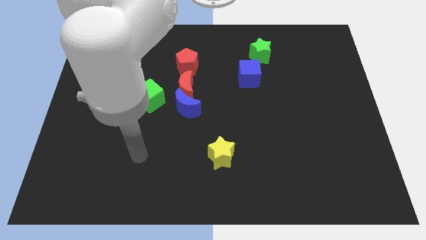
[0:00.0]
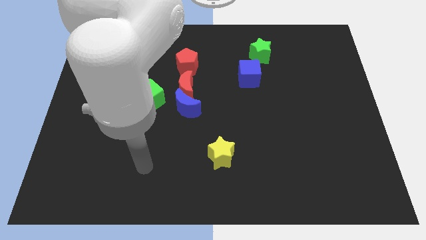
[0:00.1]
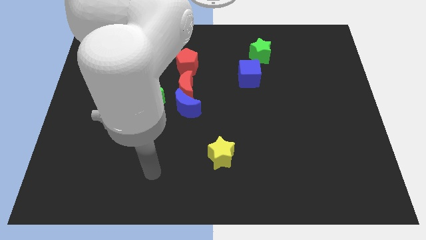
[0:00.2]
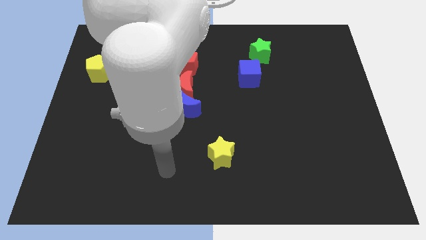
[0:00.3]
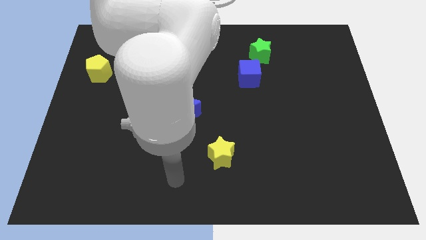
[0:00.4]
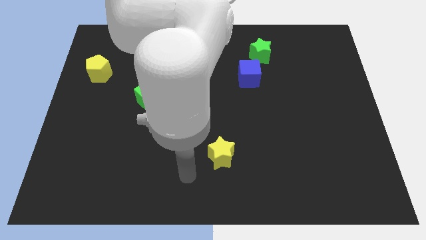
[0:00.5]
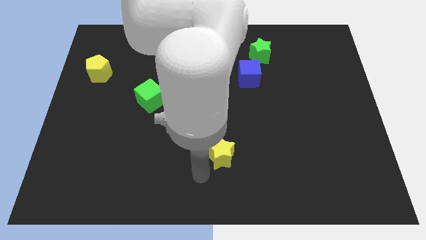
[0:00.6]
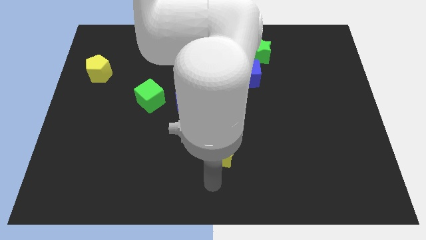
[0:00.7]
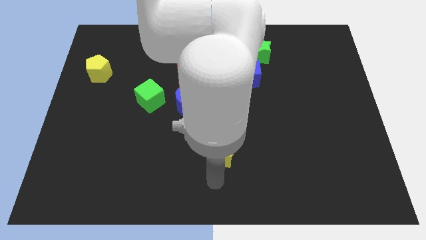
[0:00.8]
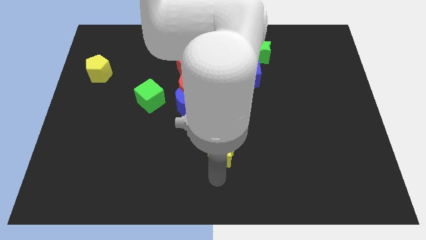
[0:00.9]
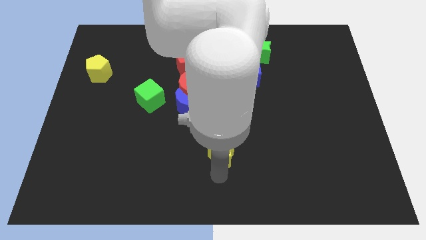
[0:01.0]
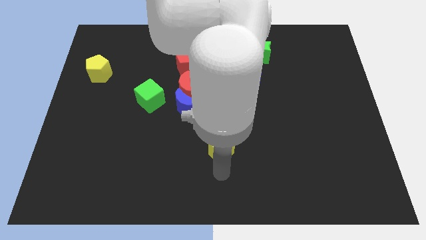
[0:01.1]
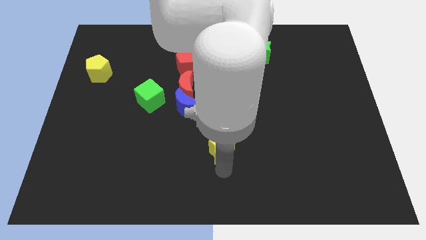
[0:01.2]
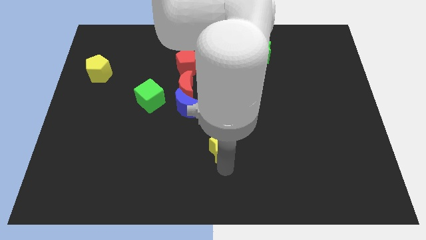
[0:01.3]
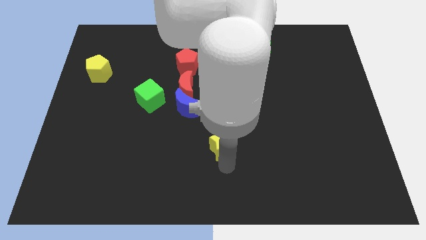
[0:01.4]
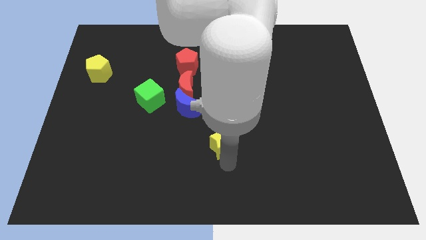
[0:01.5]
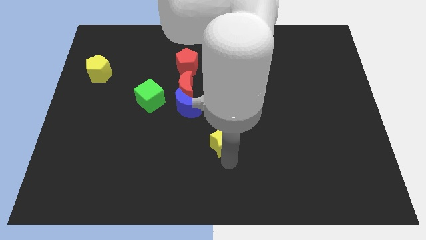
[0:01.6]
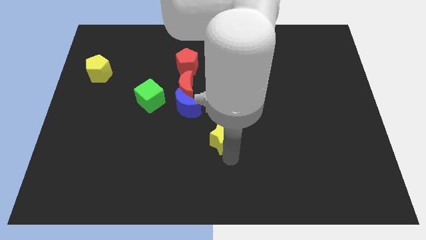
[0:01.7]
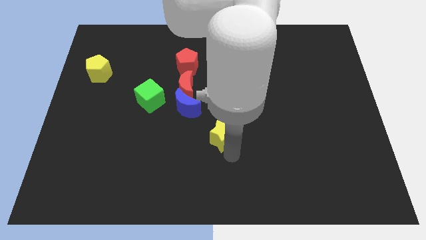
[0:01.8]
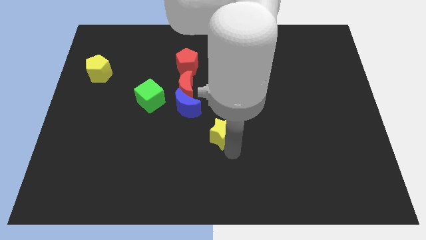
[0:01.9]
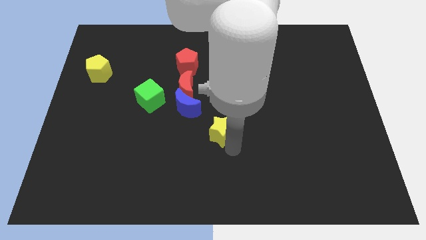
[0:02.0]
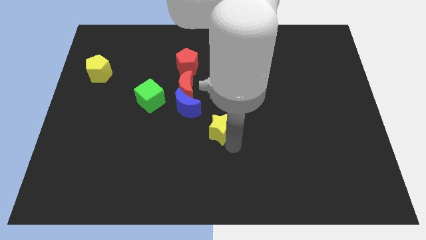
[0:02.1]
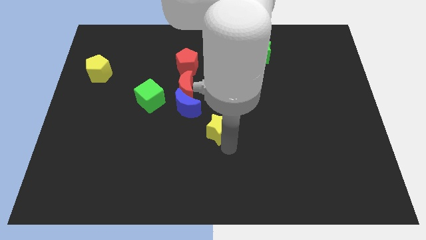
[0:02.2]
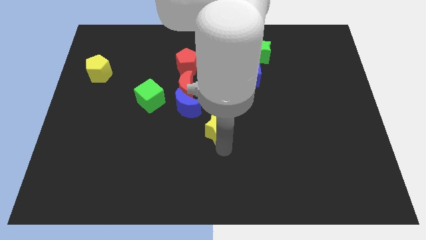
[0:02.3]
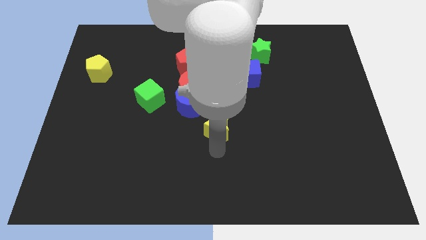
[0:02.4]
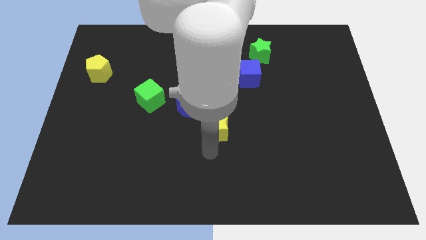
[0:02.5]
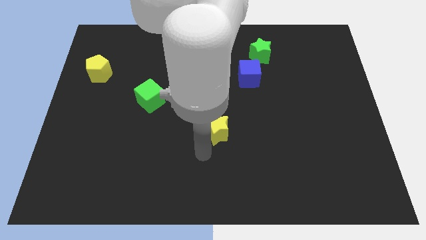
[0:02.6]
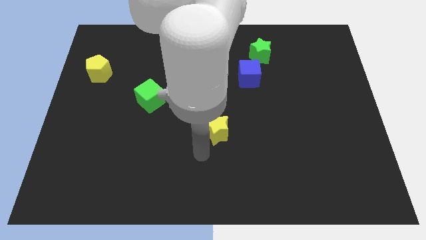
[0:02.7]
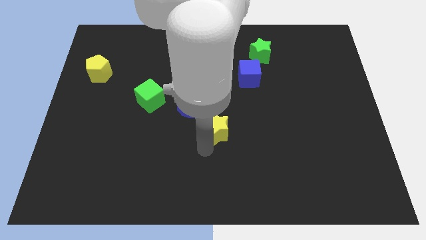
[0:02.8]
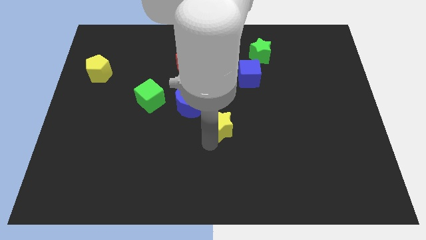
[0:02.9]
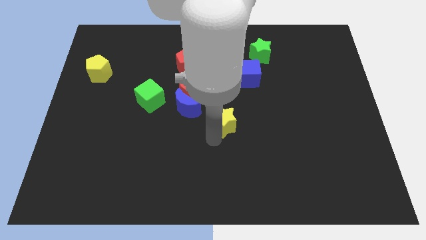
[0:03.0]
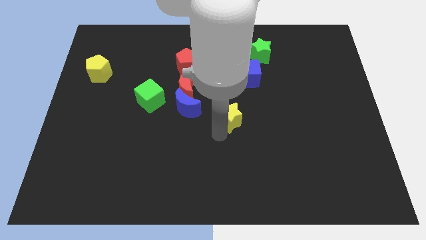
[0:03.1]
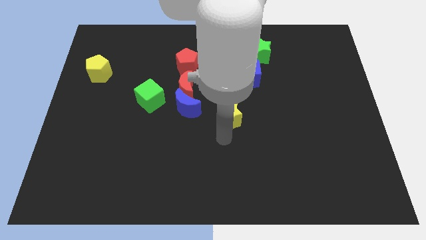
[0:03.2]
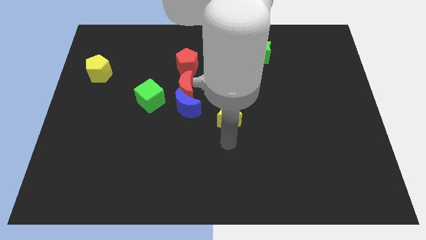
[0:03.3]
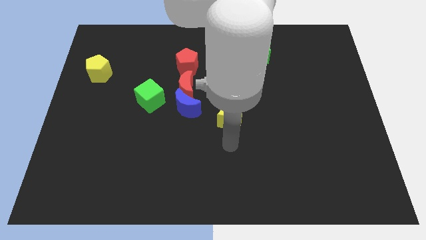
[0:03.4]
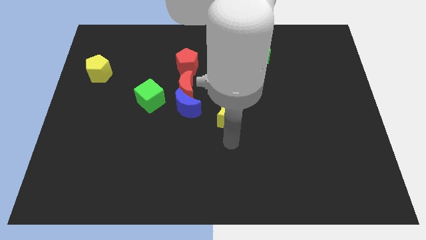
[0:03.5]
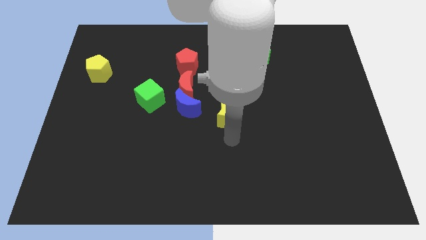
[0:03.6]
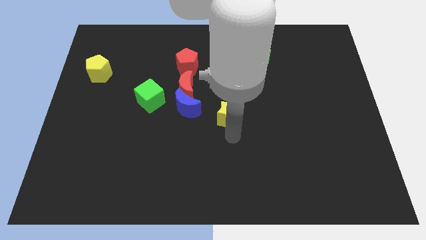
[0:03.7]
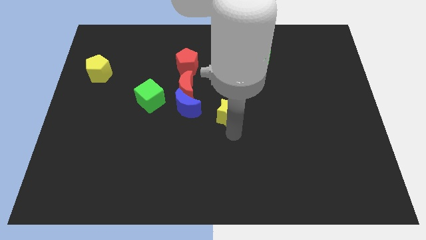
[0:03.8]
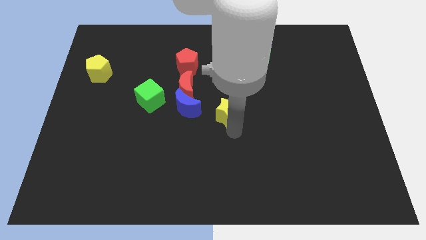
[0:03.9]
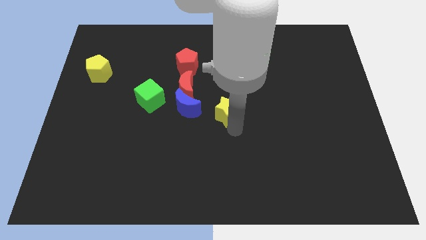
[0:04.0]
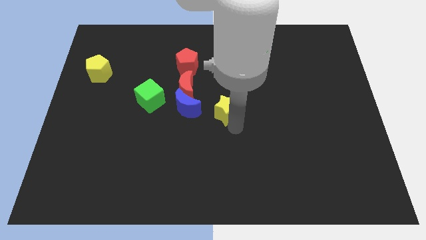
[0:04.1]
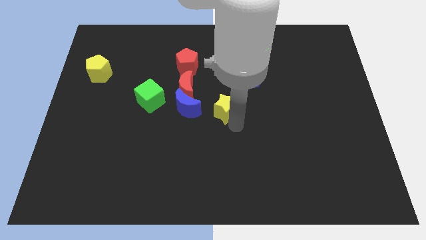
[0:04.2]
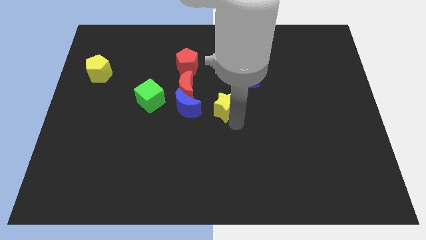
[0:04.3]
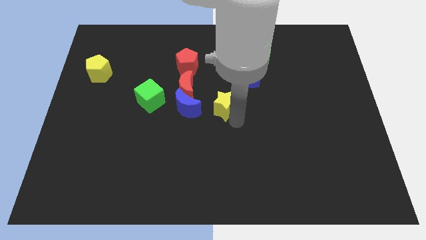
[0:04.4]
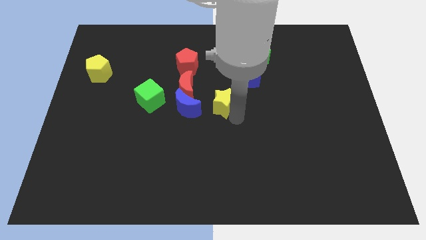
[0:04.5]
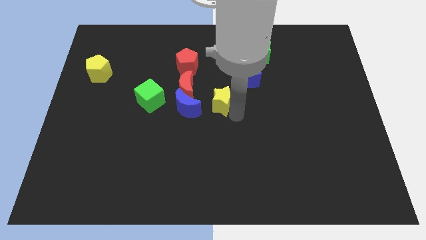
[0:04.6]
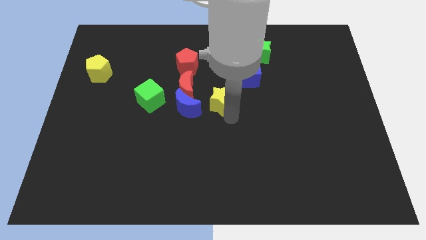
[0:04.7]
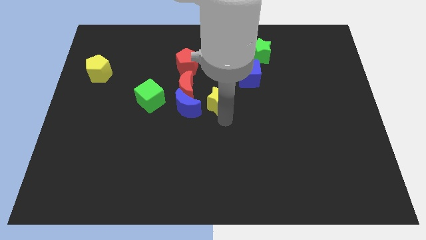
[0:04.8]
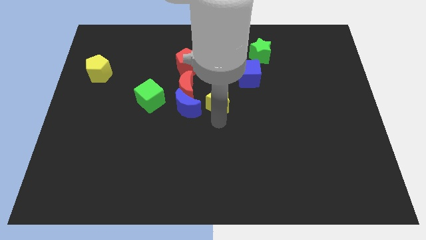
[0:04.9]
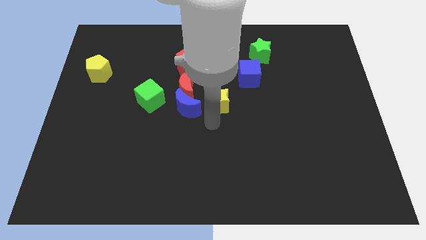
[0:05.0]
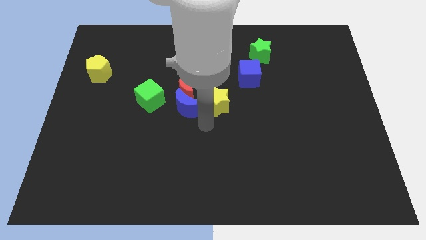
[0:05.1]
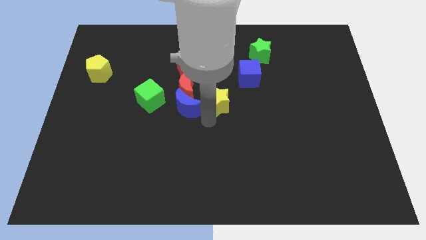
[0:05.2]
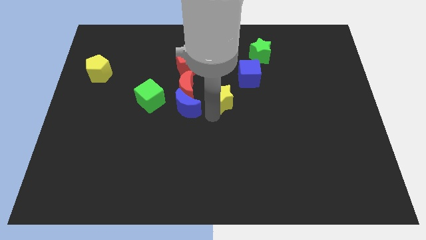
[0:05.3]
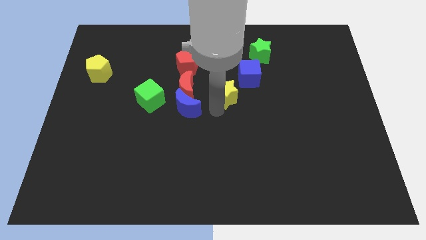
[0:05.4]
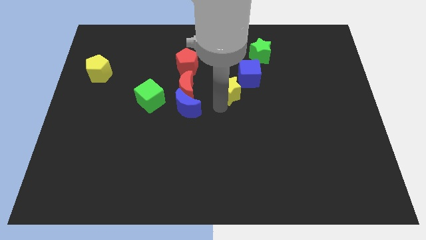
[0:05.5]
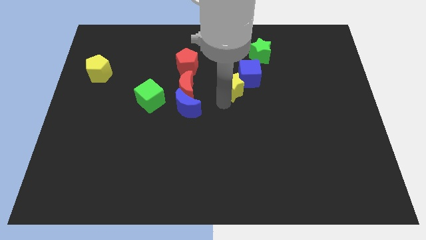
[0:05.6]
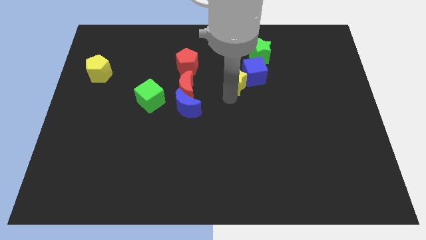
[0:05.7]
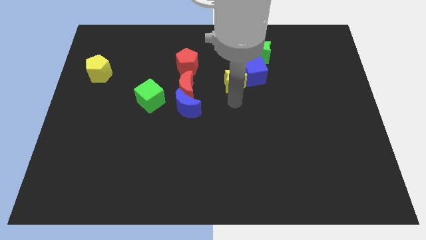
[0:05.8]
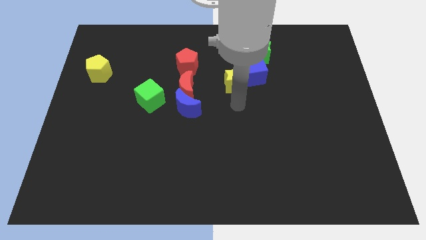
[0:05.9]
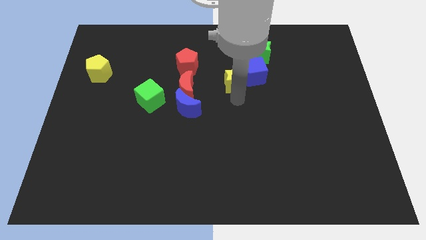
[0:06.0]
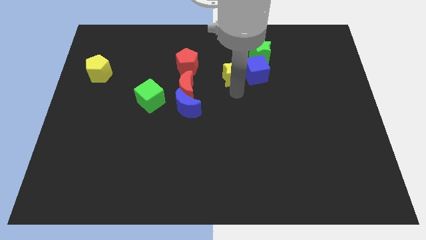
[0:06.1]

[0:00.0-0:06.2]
move the yellow star to the top left side of the blue cube

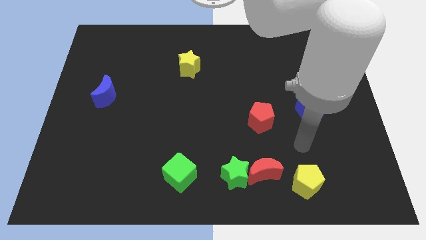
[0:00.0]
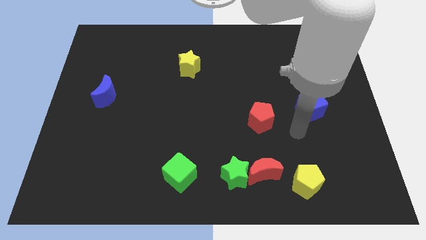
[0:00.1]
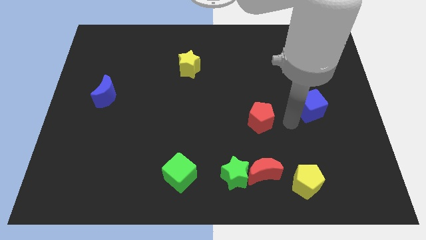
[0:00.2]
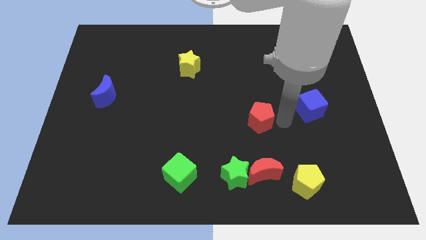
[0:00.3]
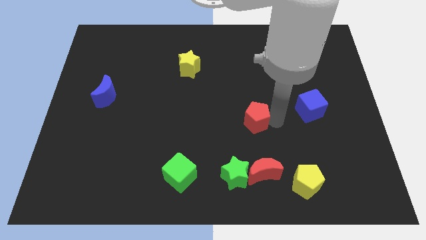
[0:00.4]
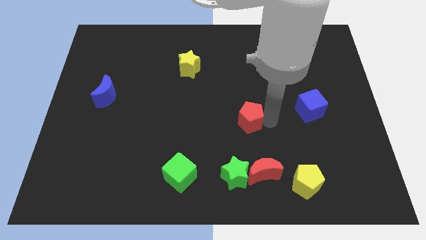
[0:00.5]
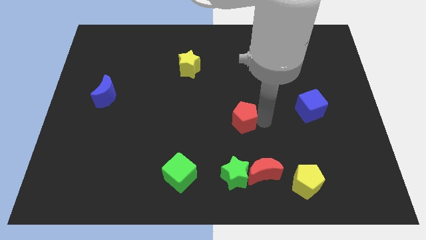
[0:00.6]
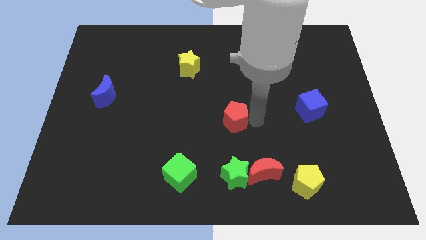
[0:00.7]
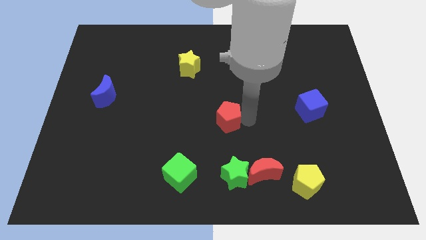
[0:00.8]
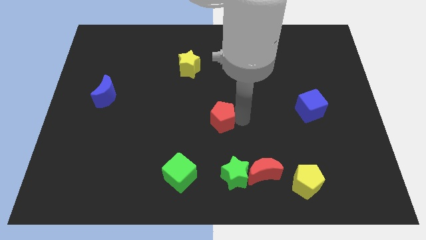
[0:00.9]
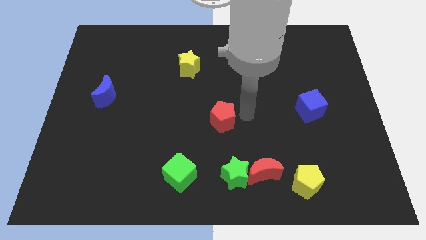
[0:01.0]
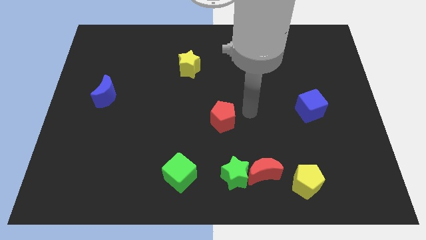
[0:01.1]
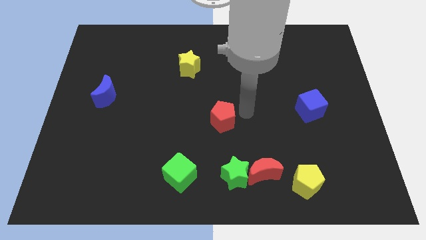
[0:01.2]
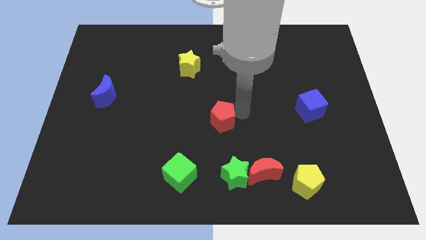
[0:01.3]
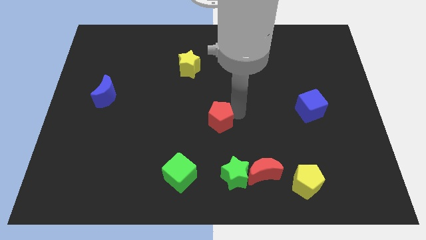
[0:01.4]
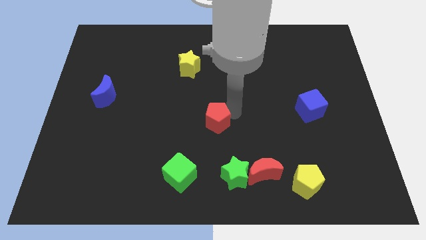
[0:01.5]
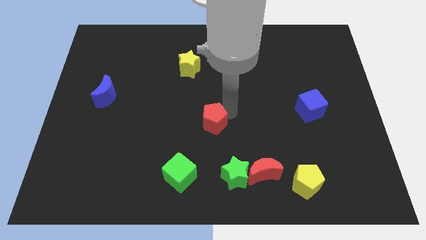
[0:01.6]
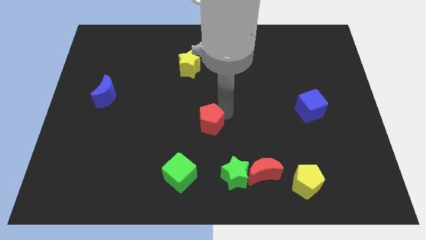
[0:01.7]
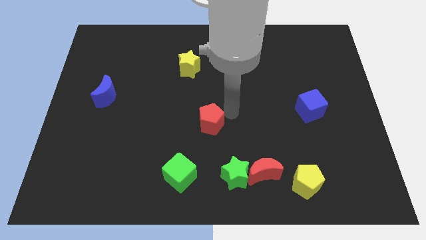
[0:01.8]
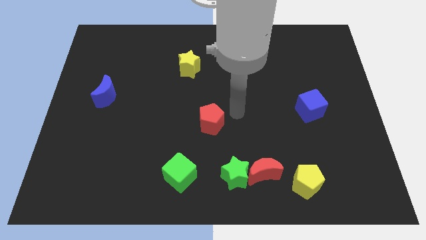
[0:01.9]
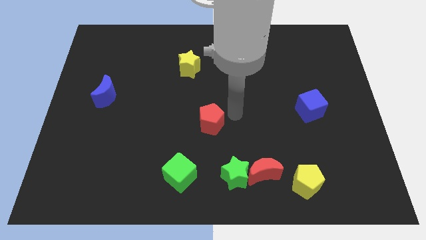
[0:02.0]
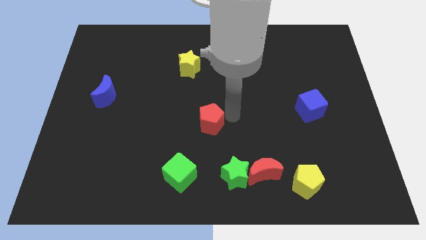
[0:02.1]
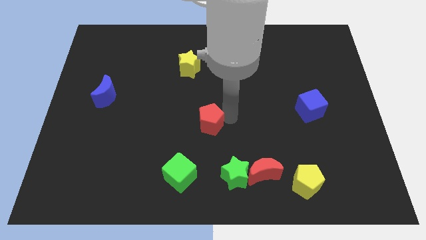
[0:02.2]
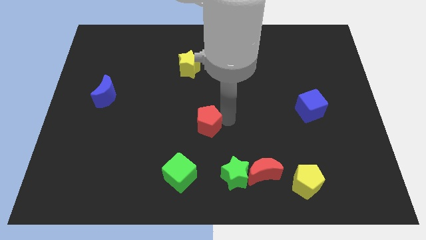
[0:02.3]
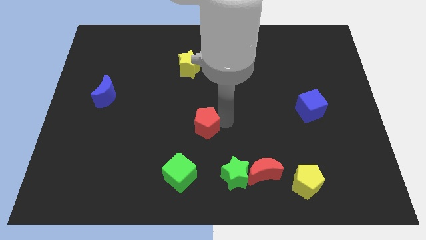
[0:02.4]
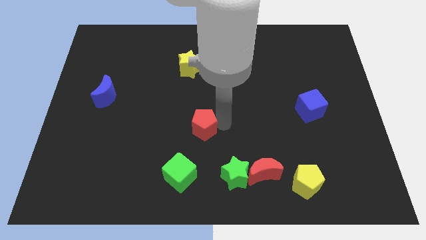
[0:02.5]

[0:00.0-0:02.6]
push the red pentagon to the top side of the green cube
